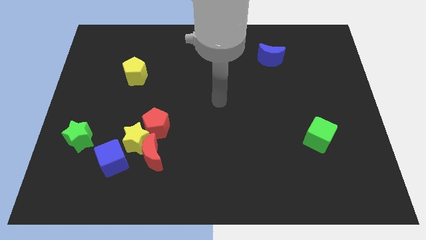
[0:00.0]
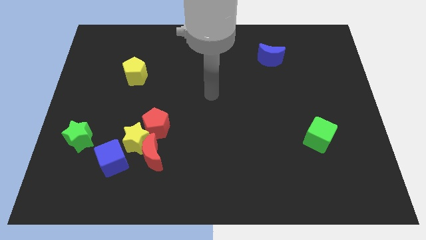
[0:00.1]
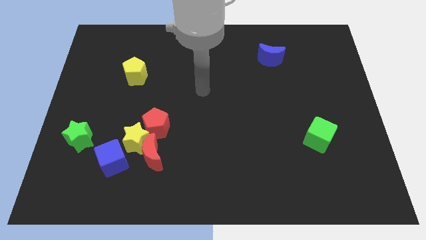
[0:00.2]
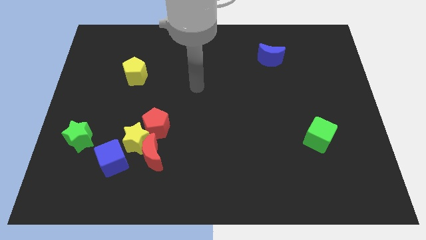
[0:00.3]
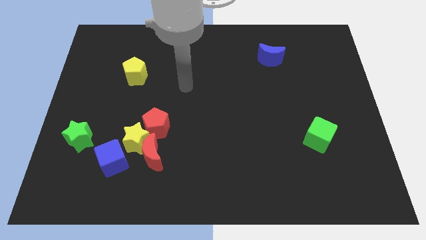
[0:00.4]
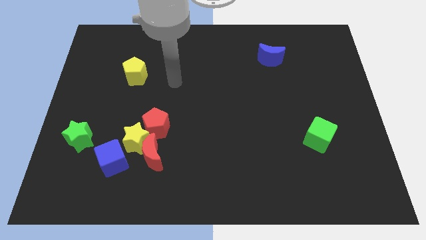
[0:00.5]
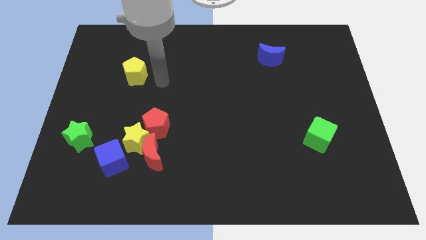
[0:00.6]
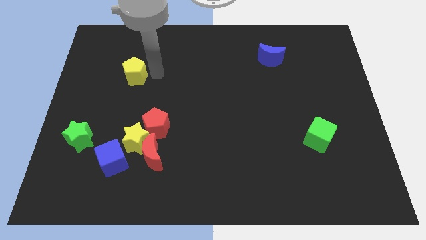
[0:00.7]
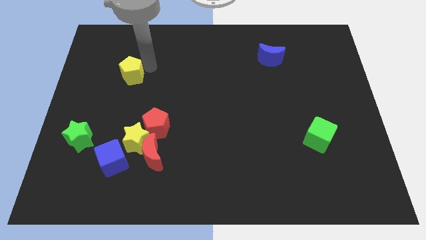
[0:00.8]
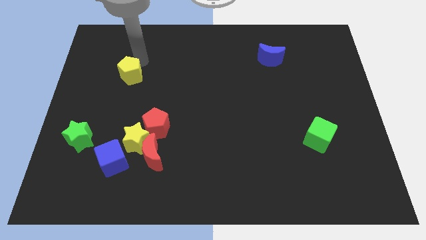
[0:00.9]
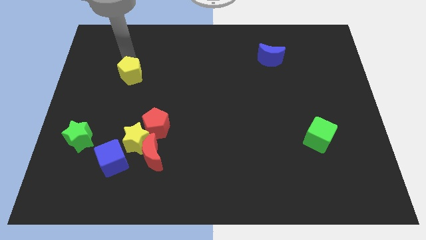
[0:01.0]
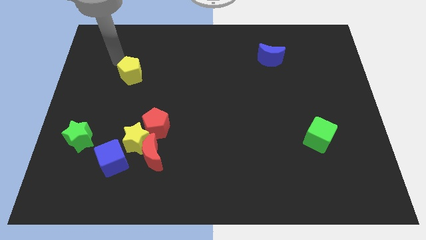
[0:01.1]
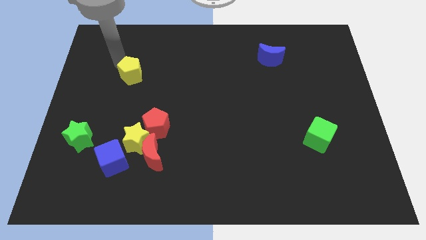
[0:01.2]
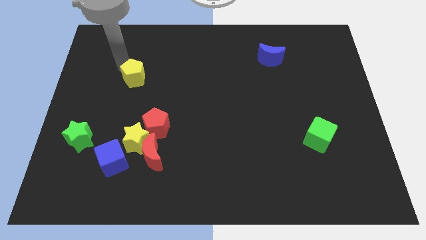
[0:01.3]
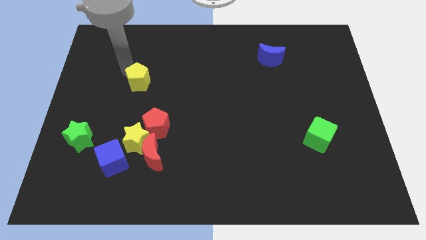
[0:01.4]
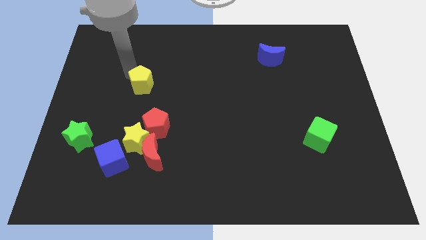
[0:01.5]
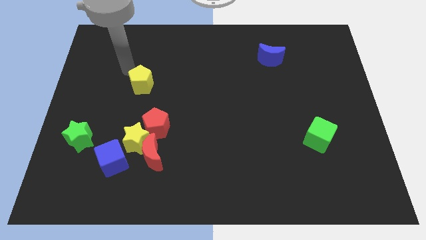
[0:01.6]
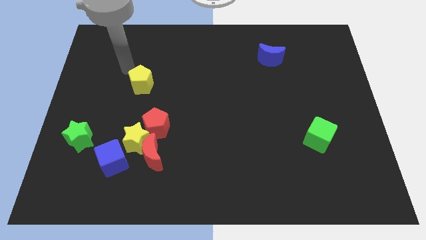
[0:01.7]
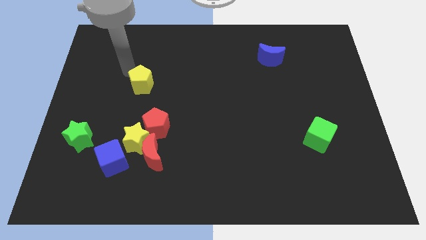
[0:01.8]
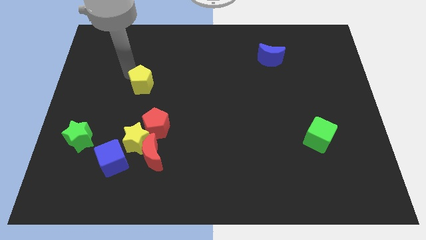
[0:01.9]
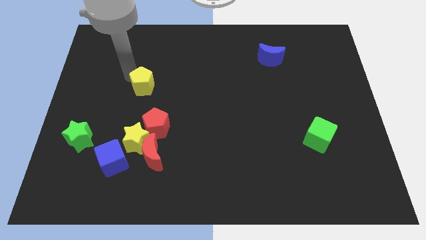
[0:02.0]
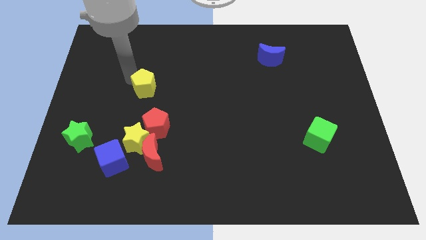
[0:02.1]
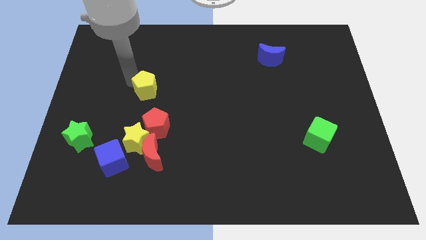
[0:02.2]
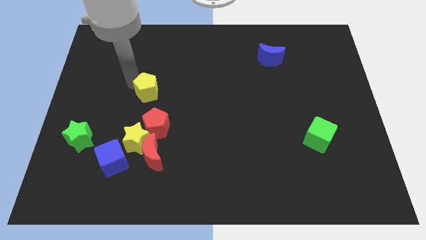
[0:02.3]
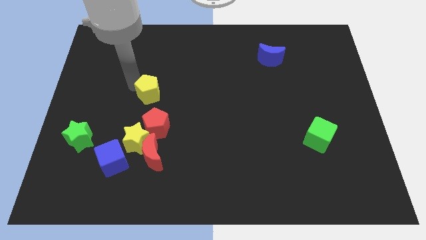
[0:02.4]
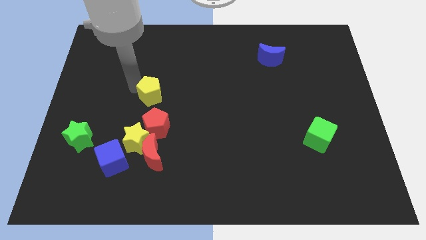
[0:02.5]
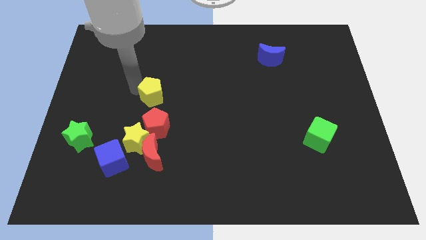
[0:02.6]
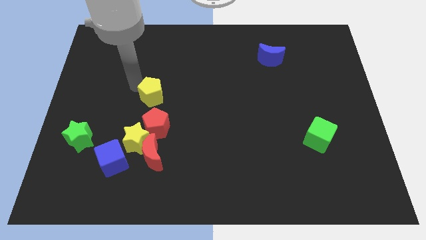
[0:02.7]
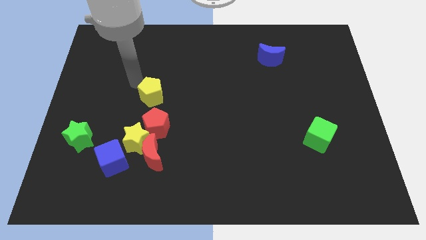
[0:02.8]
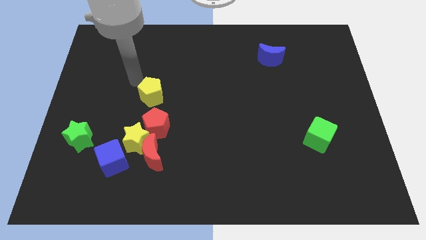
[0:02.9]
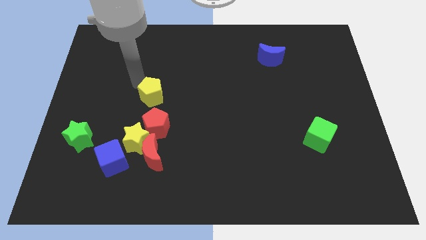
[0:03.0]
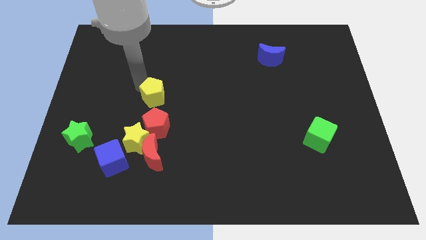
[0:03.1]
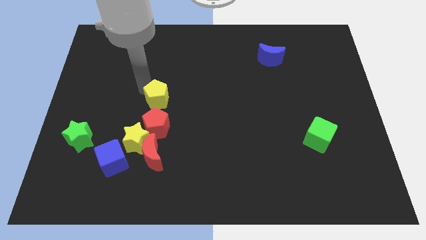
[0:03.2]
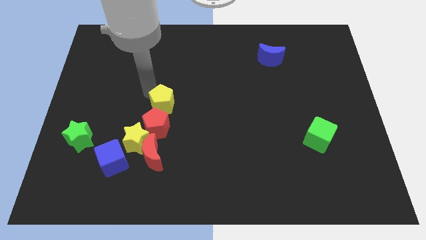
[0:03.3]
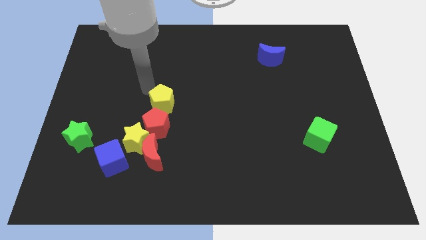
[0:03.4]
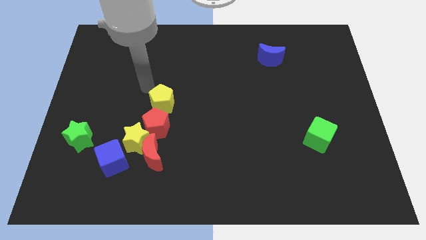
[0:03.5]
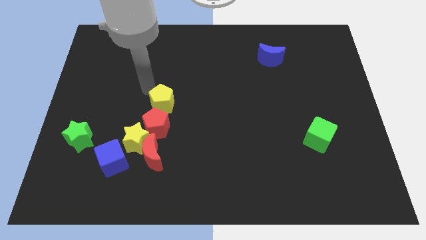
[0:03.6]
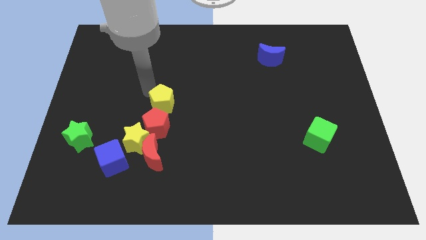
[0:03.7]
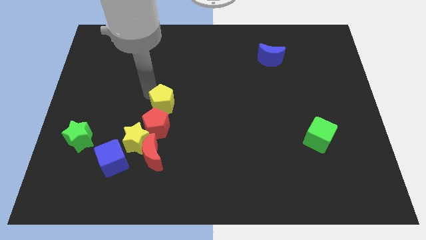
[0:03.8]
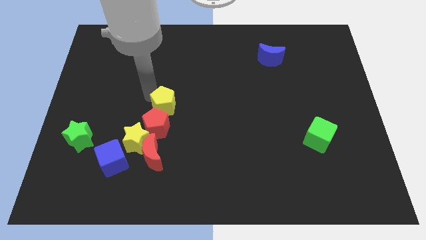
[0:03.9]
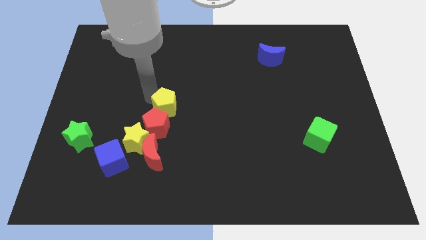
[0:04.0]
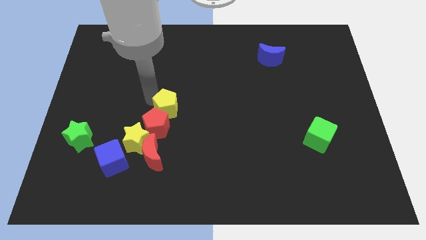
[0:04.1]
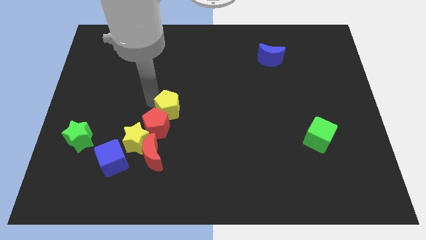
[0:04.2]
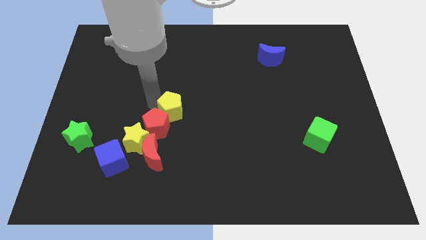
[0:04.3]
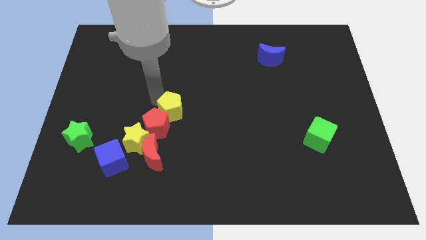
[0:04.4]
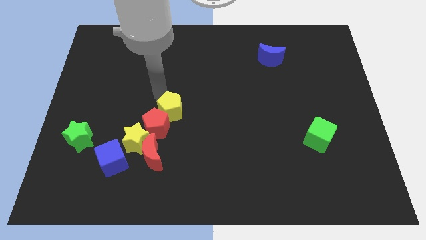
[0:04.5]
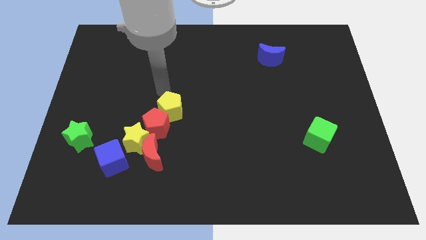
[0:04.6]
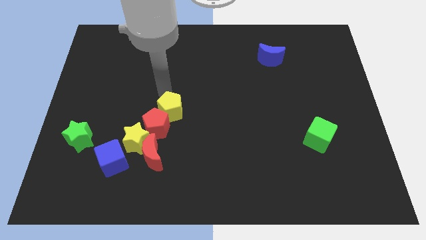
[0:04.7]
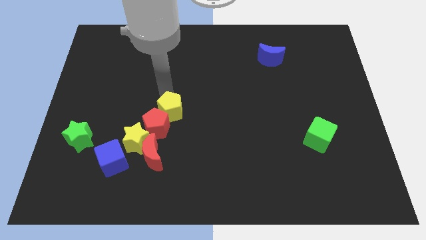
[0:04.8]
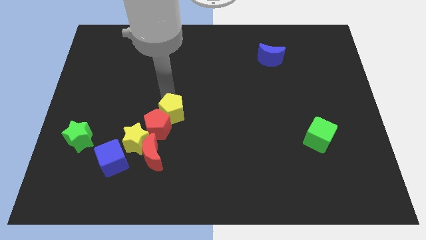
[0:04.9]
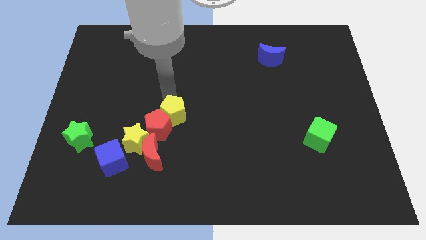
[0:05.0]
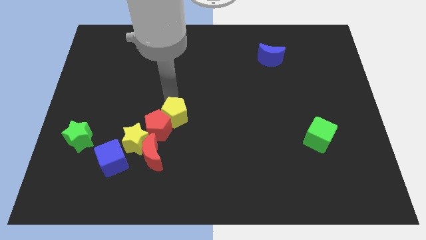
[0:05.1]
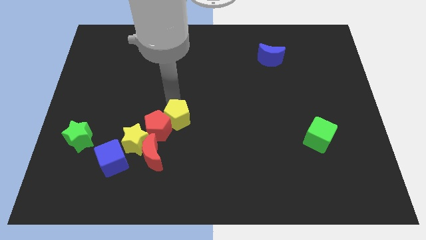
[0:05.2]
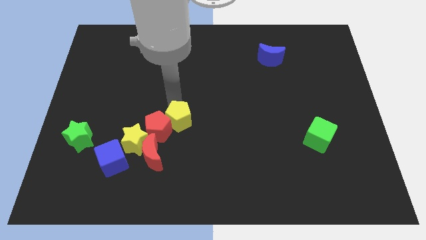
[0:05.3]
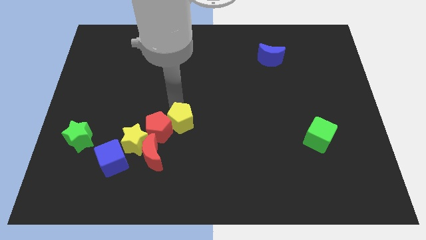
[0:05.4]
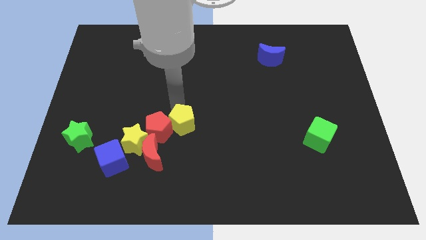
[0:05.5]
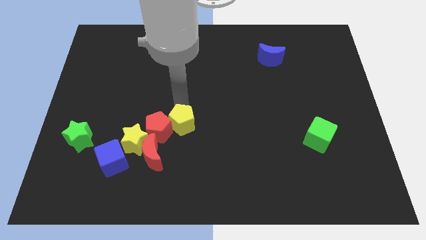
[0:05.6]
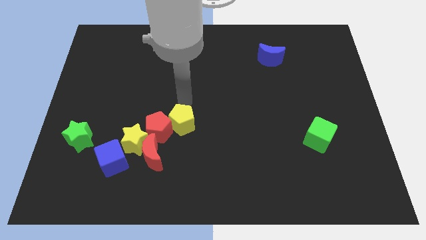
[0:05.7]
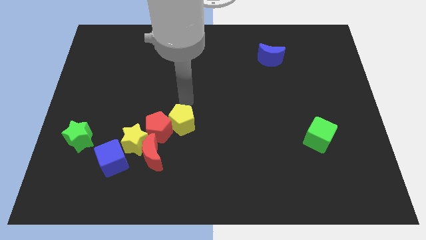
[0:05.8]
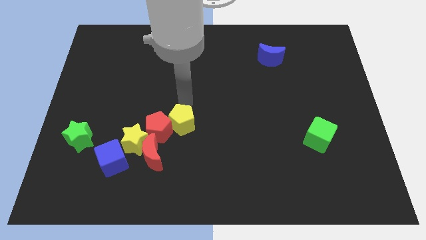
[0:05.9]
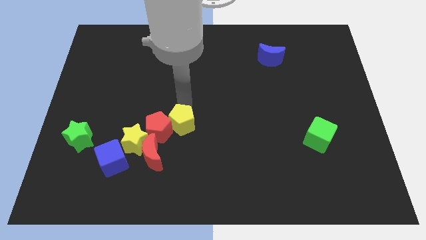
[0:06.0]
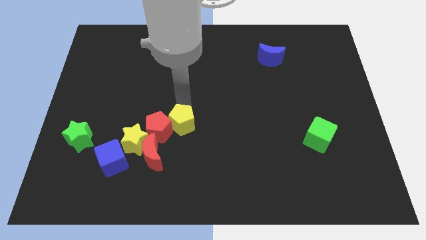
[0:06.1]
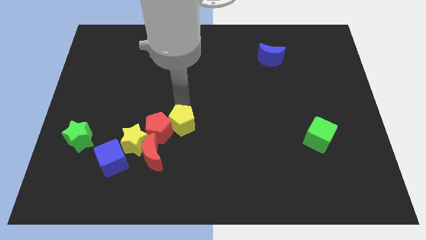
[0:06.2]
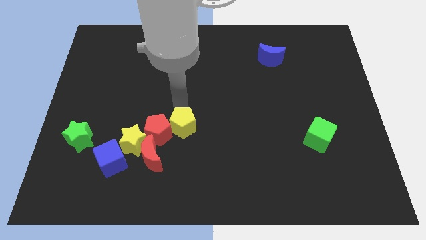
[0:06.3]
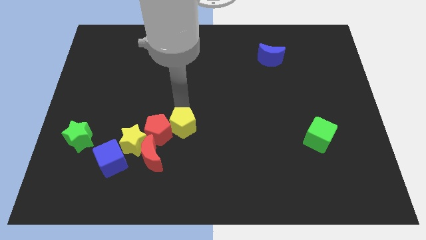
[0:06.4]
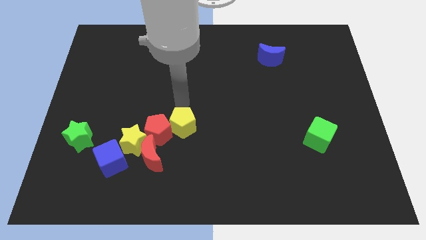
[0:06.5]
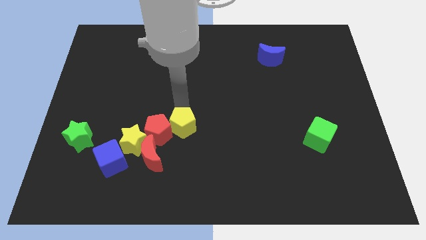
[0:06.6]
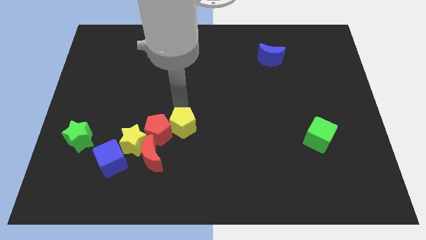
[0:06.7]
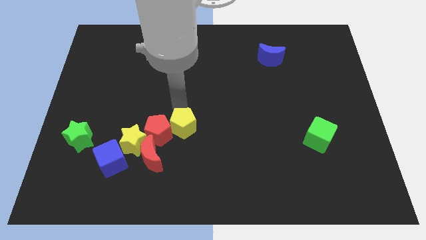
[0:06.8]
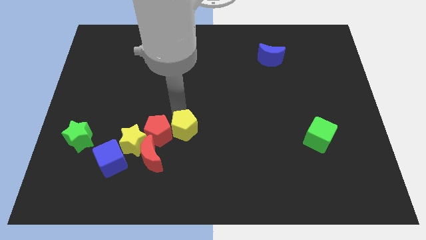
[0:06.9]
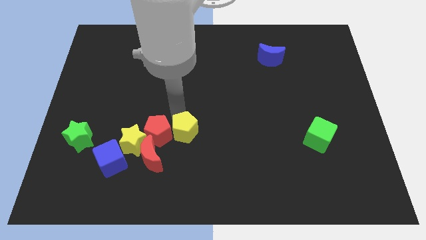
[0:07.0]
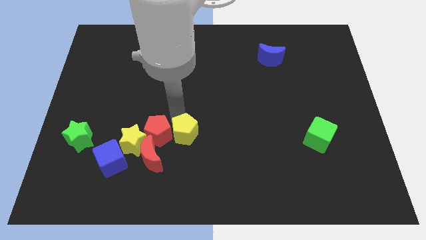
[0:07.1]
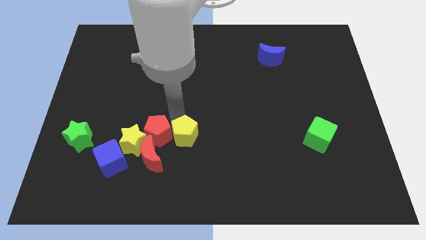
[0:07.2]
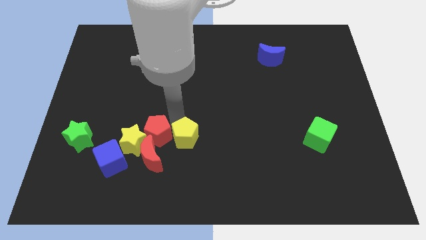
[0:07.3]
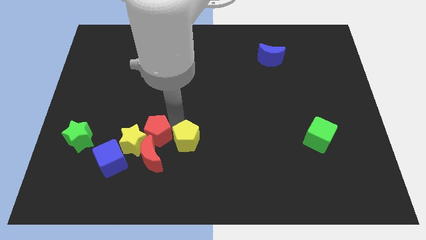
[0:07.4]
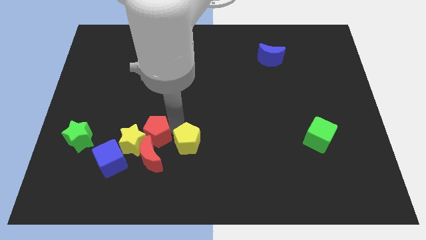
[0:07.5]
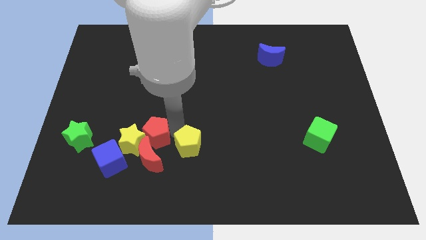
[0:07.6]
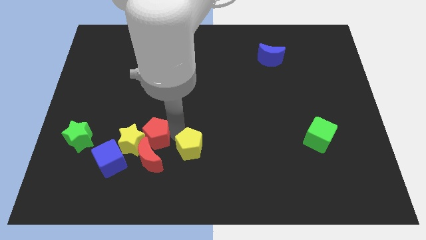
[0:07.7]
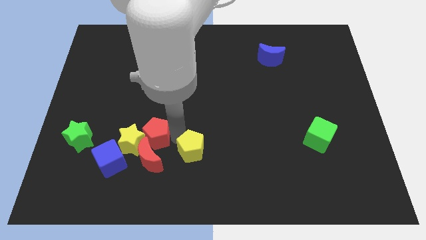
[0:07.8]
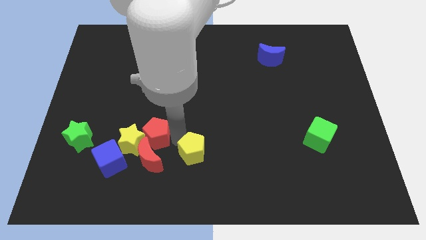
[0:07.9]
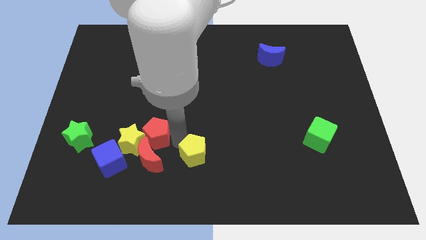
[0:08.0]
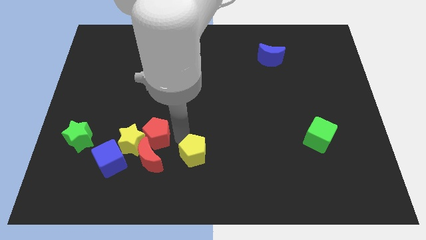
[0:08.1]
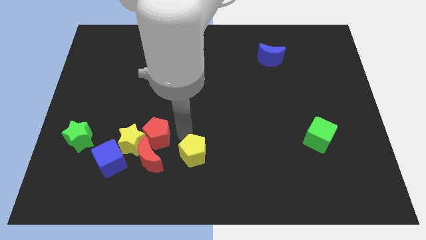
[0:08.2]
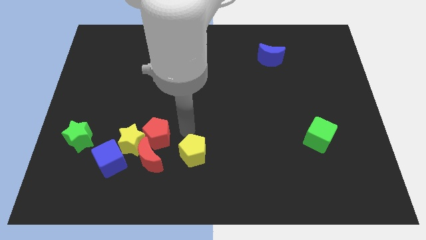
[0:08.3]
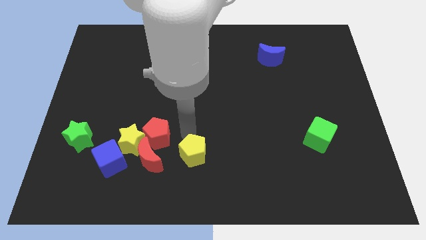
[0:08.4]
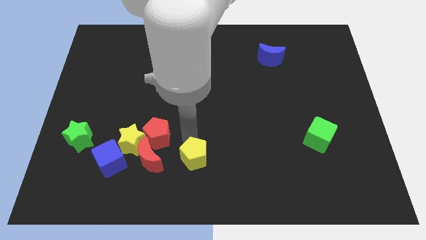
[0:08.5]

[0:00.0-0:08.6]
push the yellow pentagon to the bottom side
